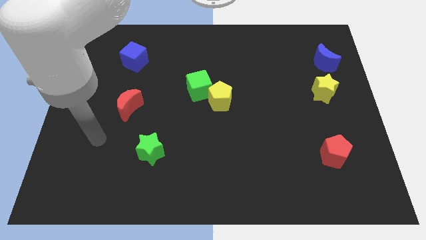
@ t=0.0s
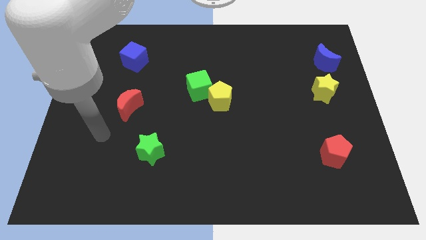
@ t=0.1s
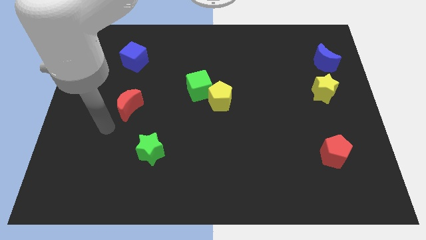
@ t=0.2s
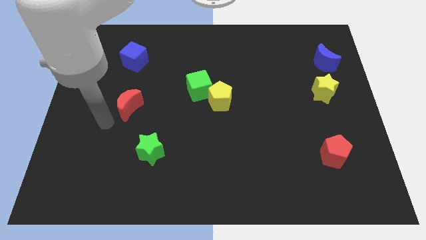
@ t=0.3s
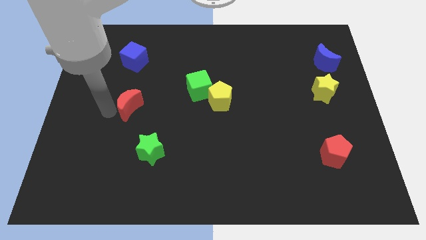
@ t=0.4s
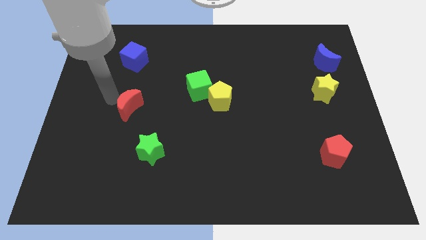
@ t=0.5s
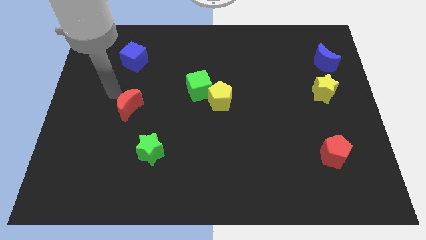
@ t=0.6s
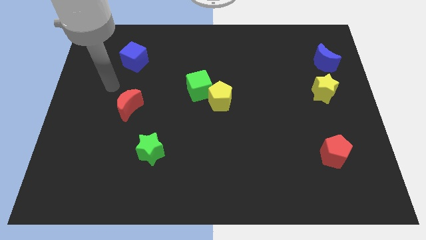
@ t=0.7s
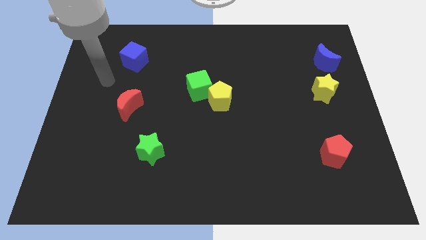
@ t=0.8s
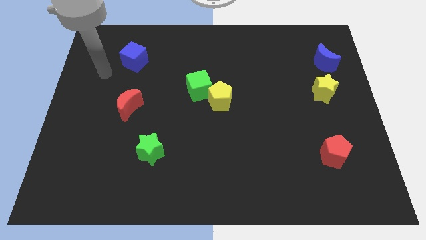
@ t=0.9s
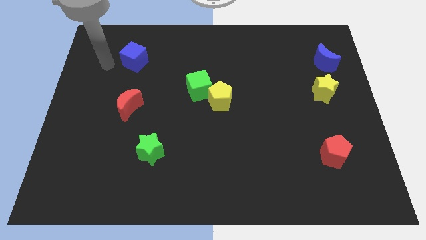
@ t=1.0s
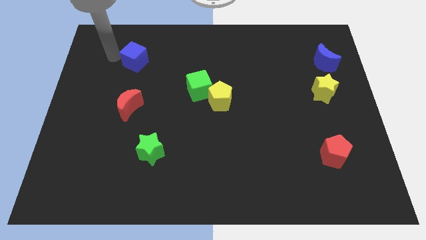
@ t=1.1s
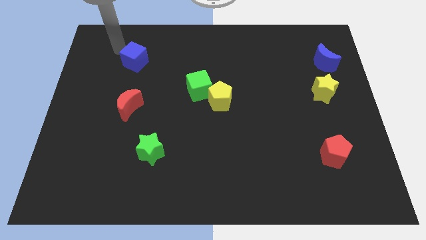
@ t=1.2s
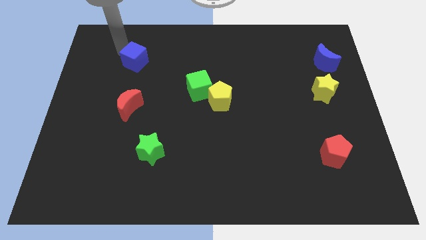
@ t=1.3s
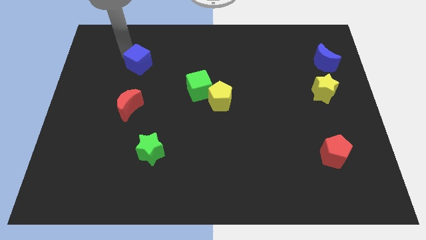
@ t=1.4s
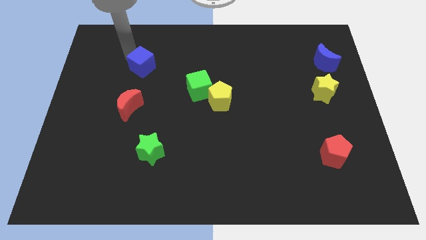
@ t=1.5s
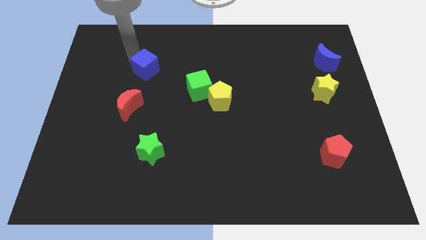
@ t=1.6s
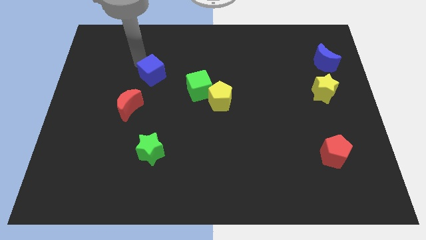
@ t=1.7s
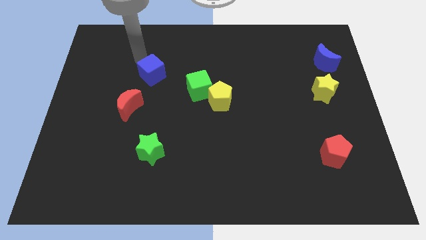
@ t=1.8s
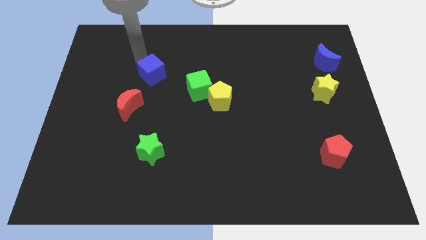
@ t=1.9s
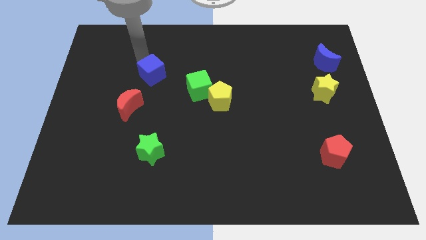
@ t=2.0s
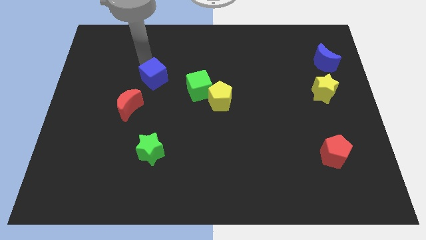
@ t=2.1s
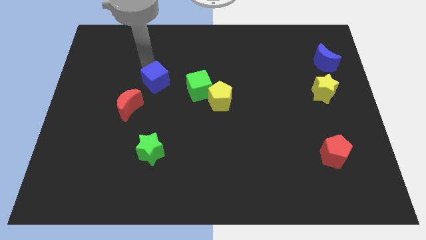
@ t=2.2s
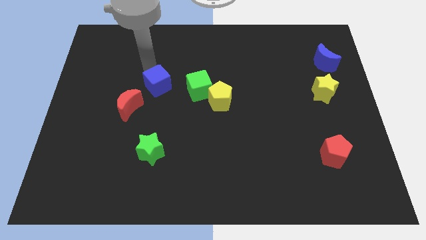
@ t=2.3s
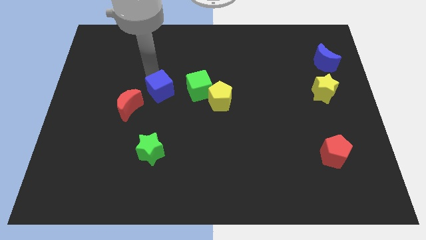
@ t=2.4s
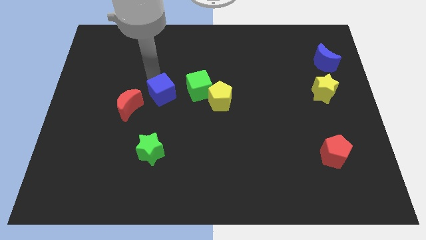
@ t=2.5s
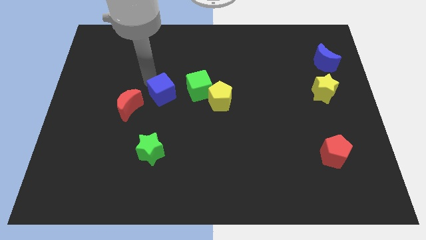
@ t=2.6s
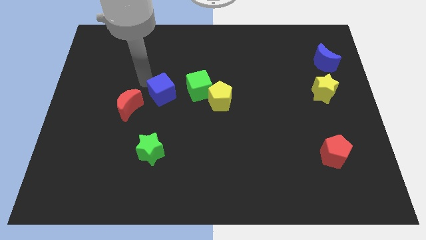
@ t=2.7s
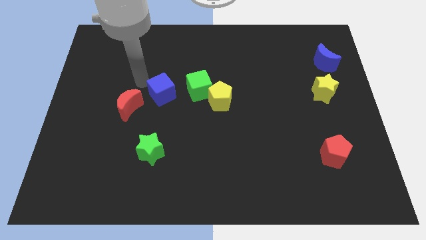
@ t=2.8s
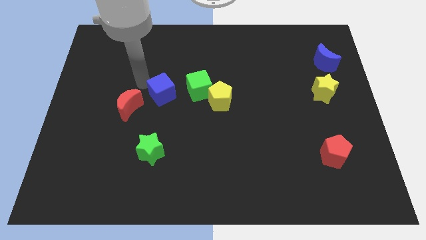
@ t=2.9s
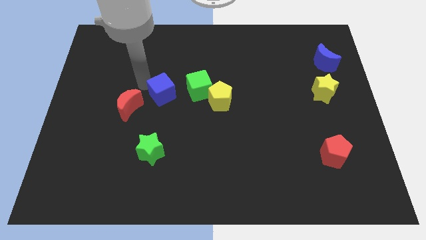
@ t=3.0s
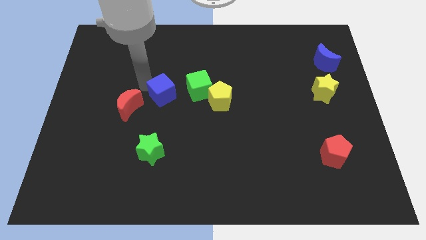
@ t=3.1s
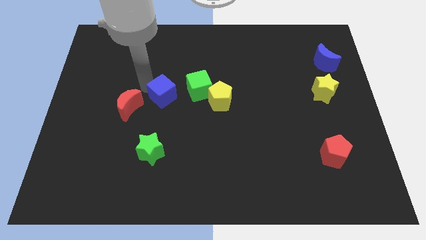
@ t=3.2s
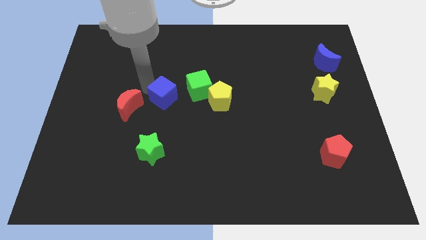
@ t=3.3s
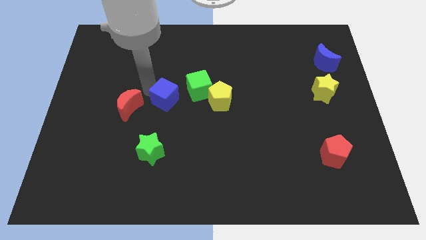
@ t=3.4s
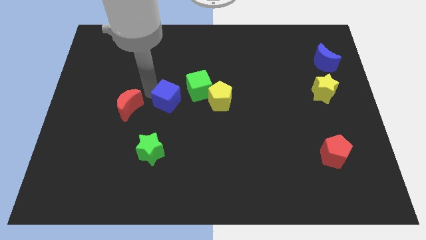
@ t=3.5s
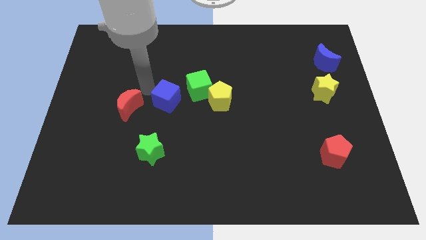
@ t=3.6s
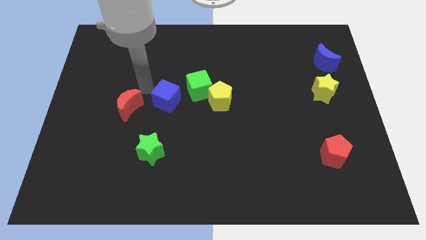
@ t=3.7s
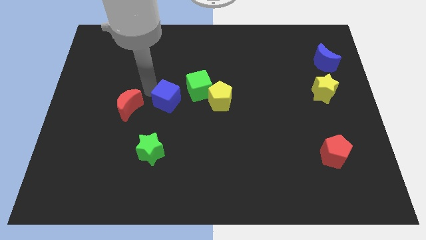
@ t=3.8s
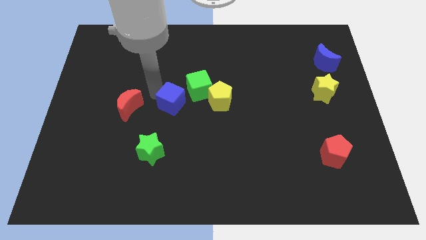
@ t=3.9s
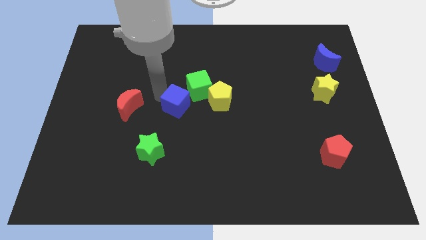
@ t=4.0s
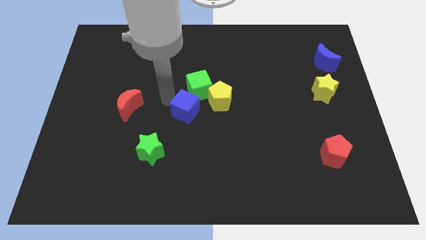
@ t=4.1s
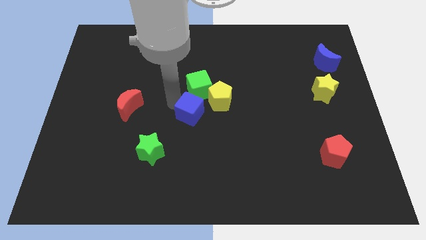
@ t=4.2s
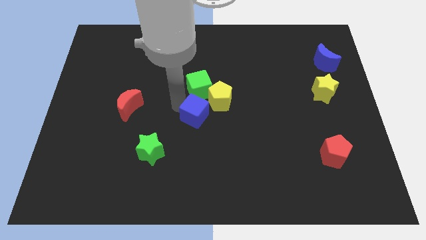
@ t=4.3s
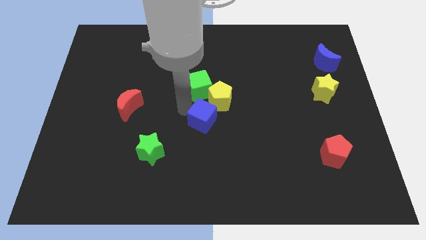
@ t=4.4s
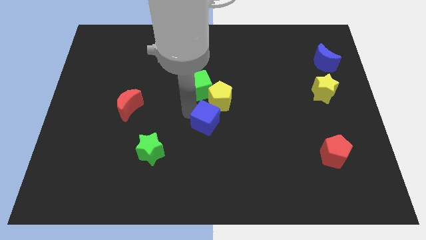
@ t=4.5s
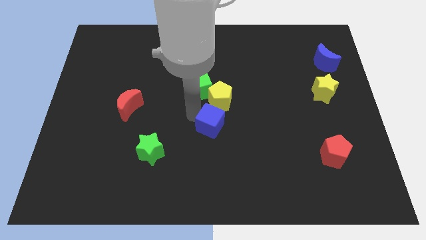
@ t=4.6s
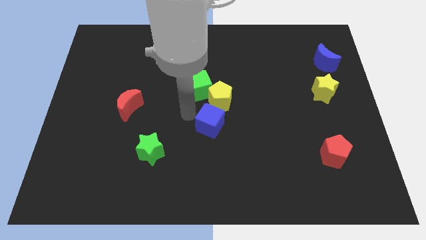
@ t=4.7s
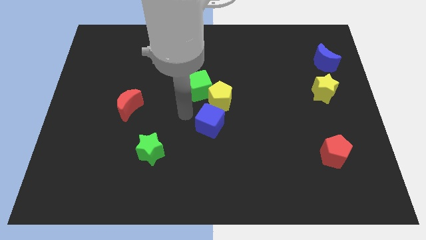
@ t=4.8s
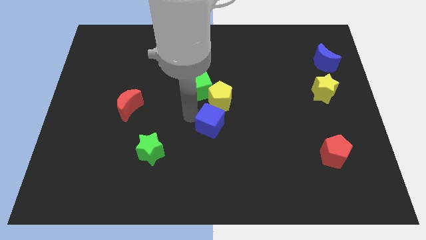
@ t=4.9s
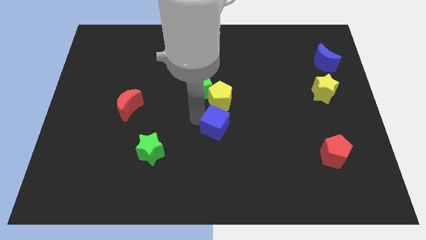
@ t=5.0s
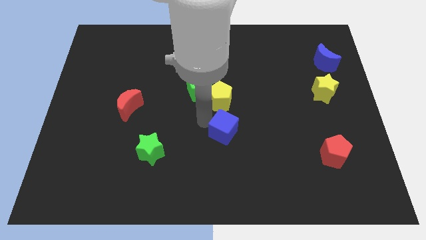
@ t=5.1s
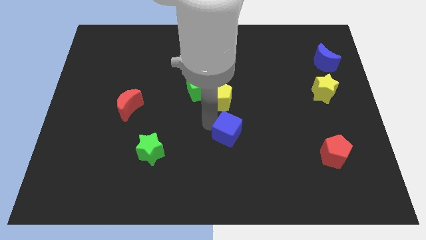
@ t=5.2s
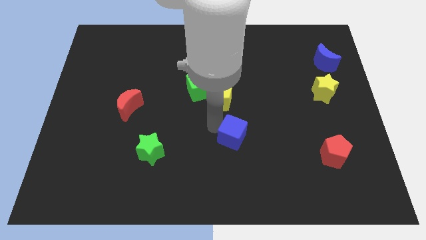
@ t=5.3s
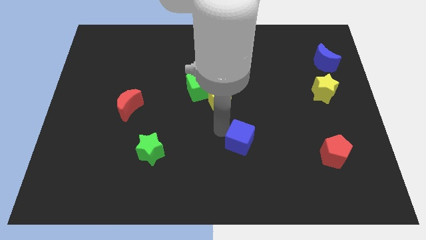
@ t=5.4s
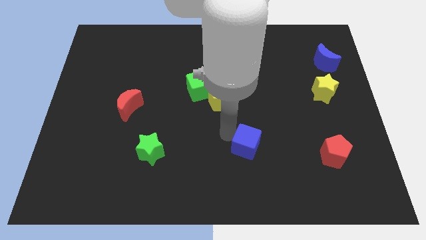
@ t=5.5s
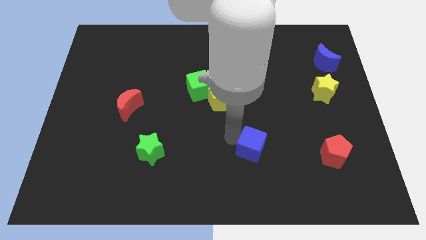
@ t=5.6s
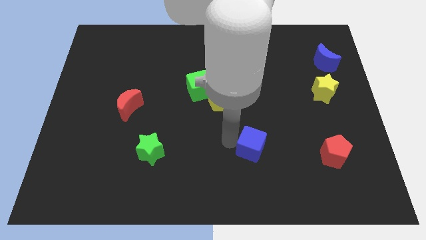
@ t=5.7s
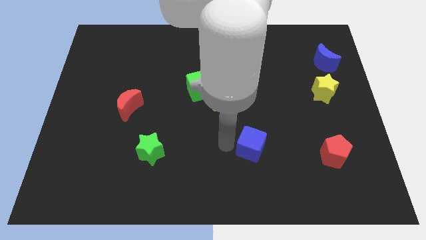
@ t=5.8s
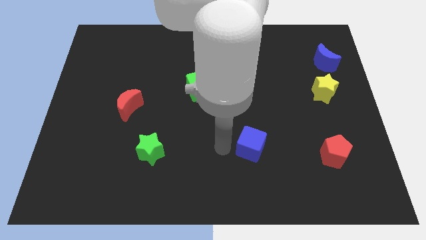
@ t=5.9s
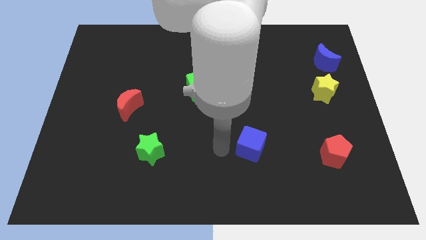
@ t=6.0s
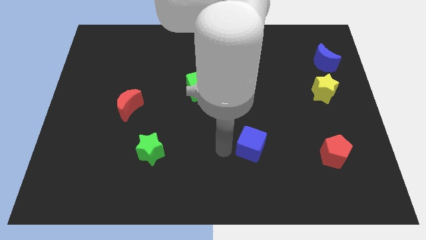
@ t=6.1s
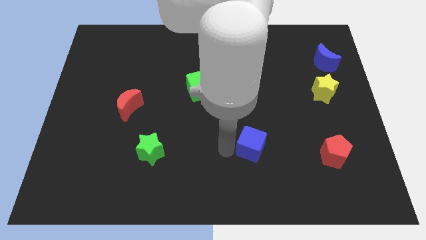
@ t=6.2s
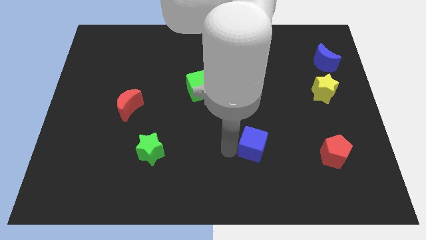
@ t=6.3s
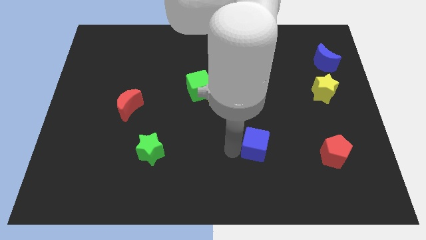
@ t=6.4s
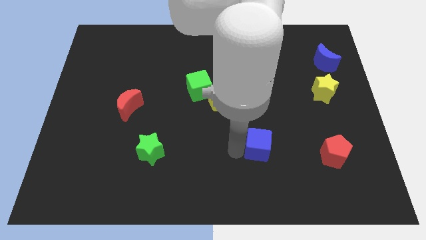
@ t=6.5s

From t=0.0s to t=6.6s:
move the blue cube just left of the red pentagon
